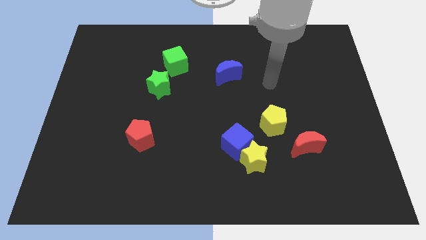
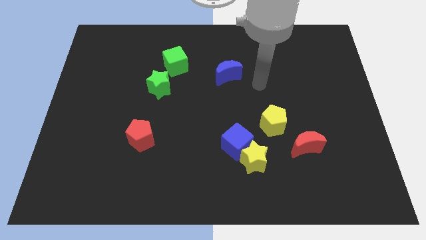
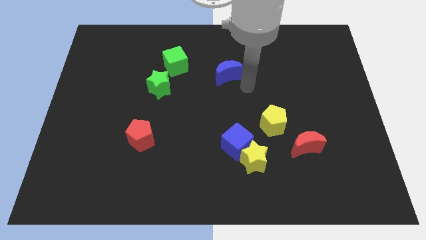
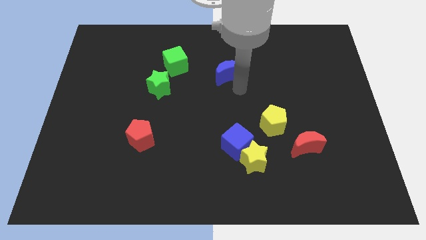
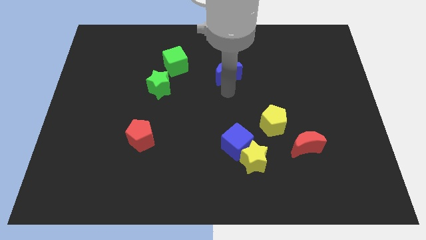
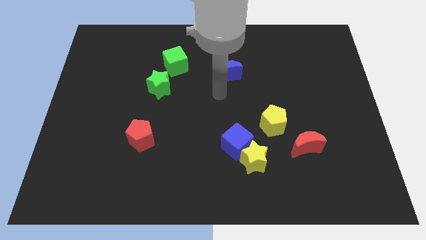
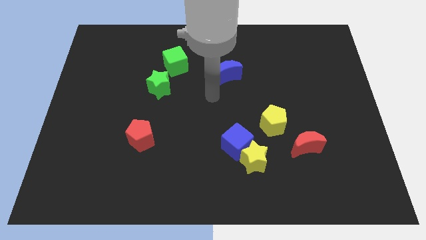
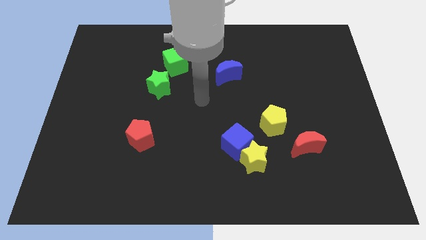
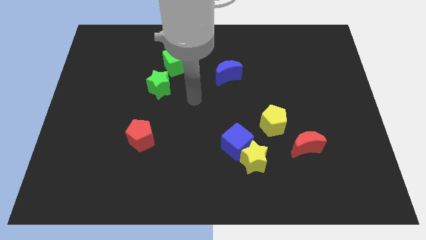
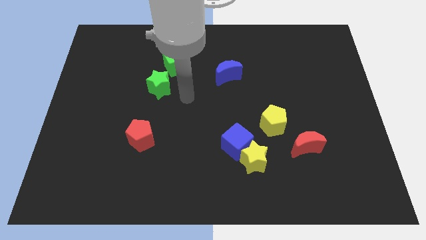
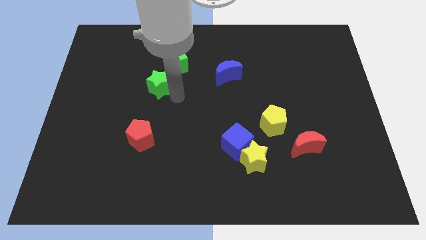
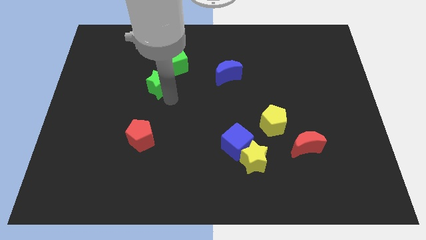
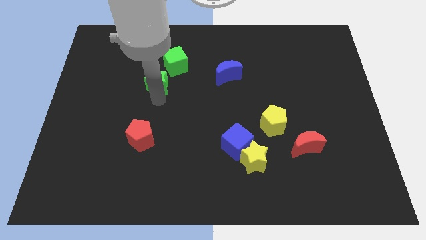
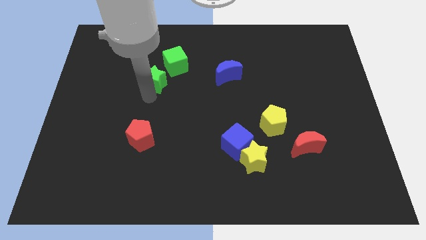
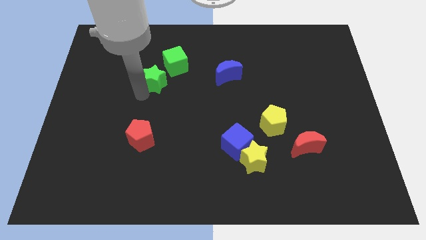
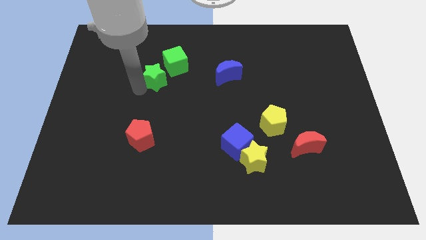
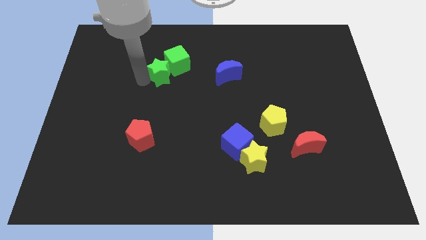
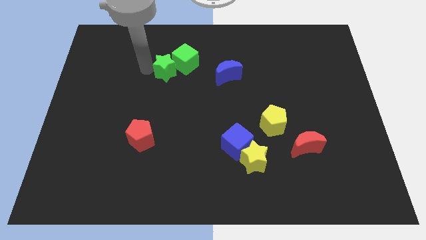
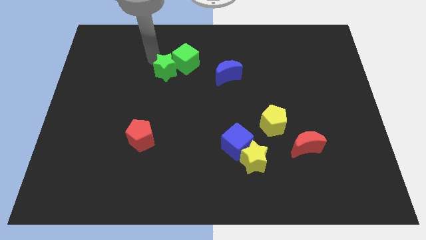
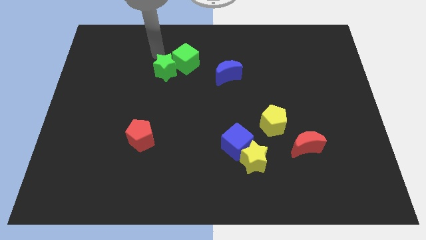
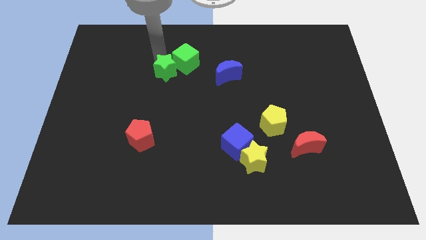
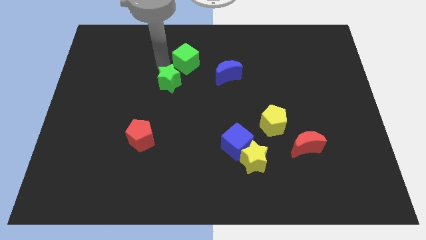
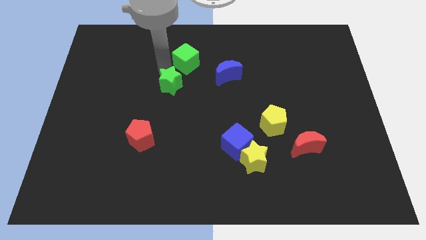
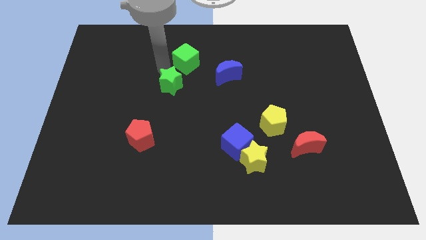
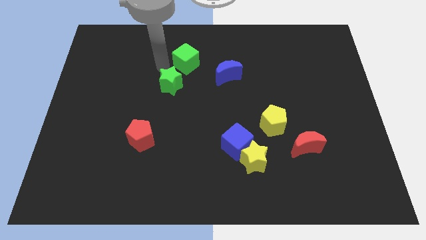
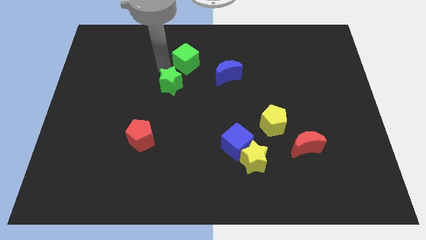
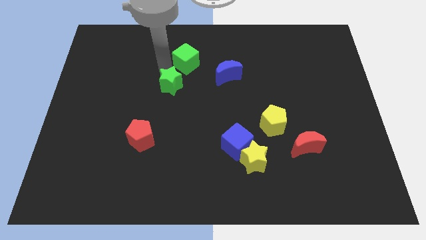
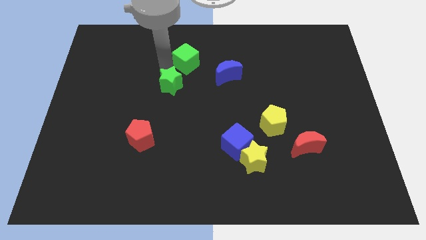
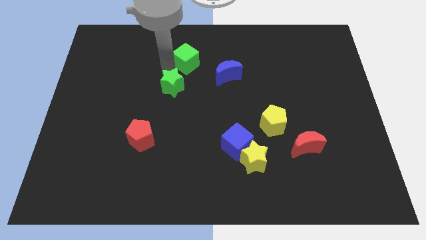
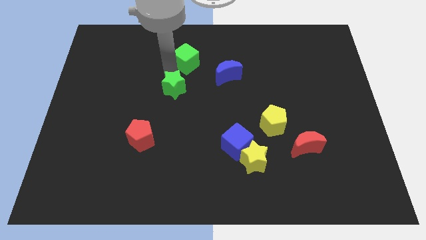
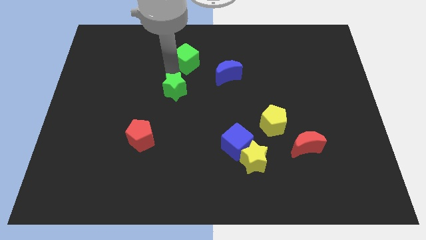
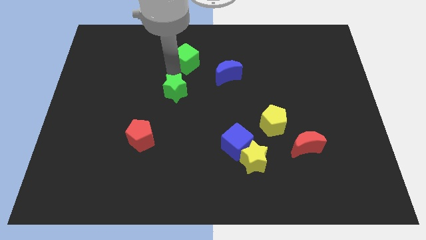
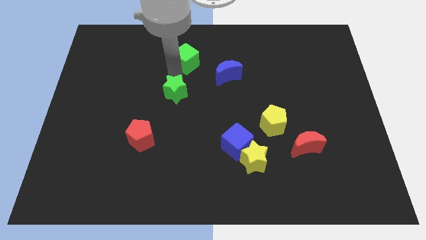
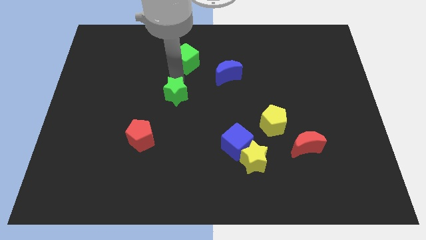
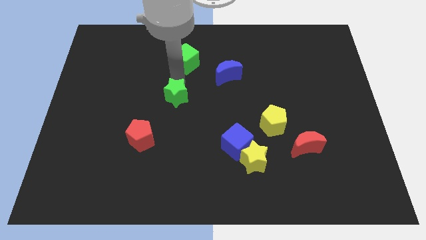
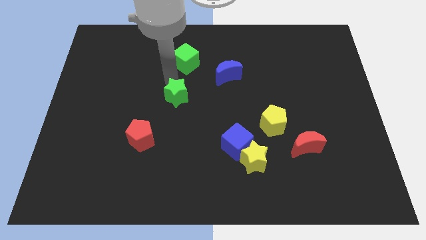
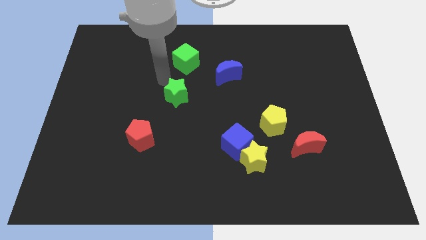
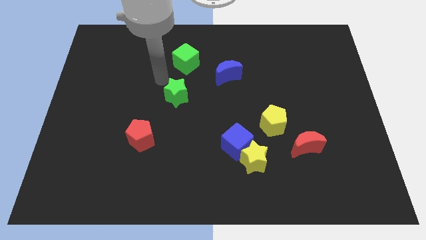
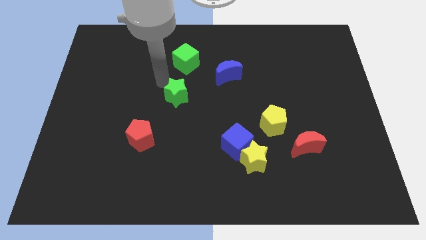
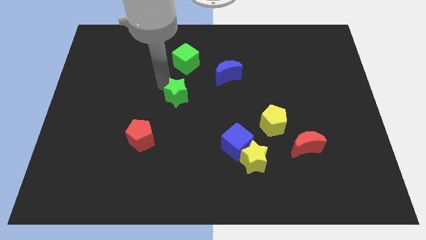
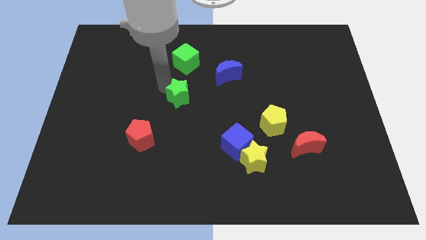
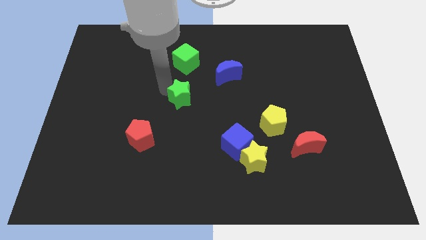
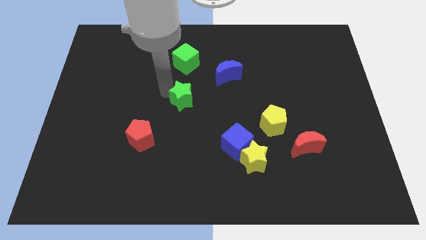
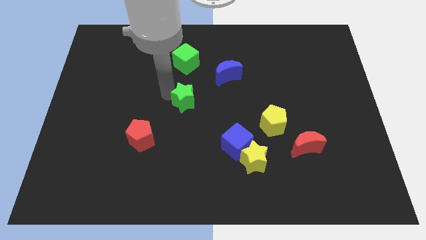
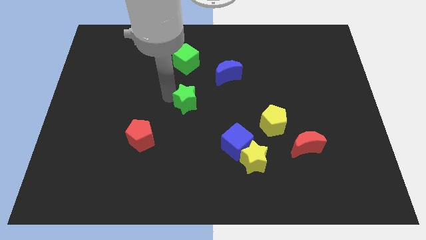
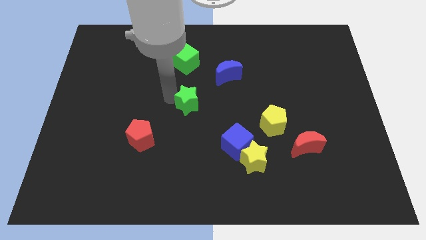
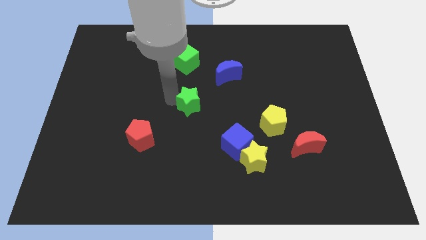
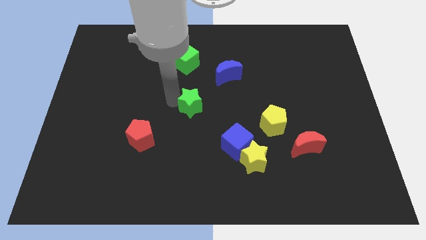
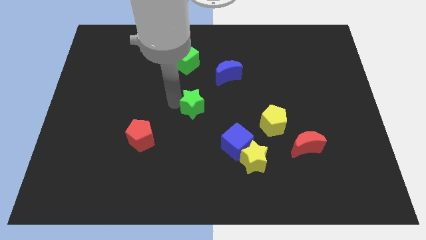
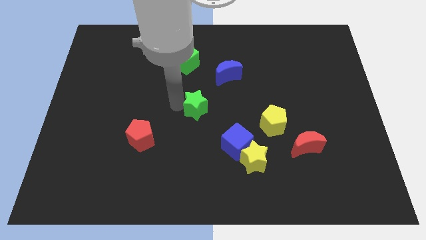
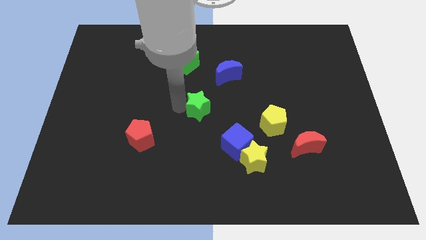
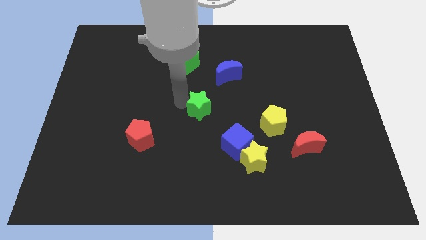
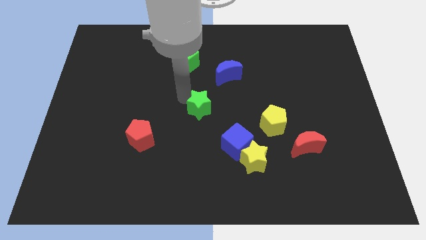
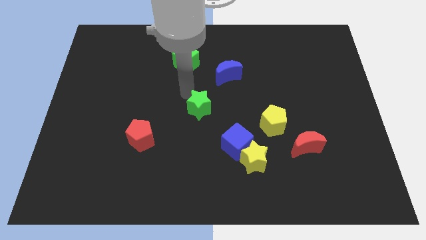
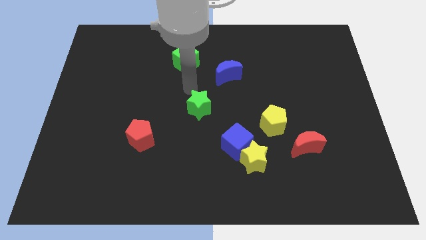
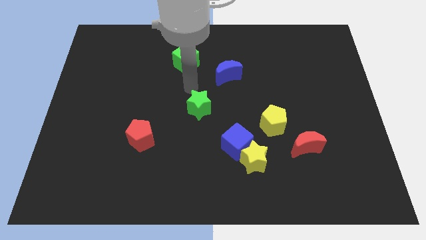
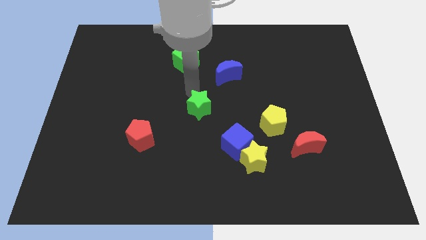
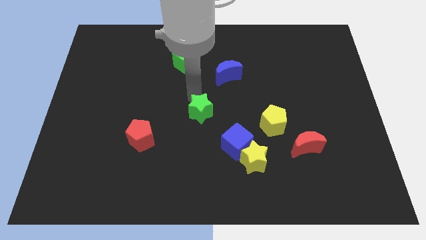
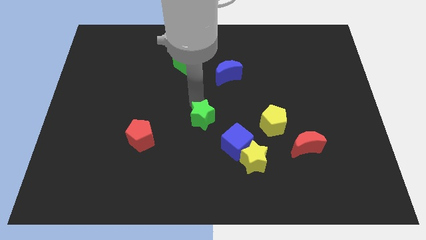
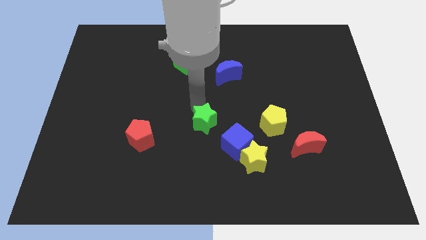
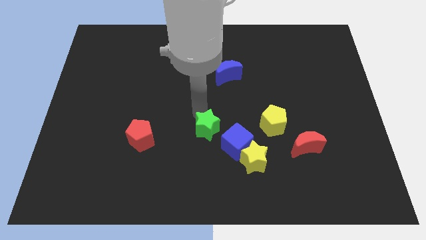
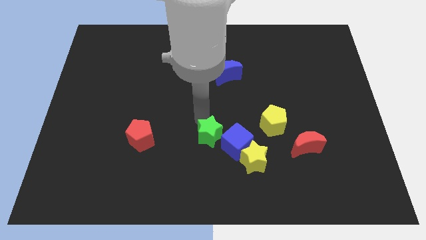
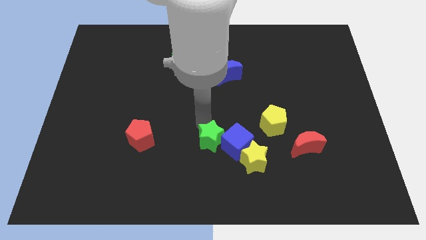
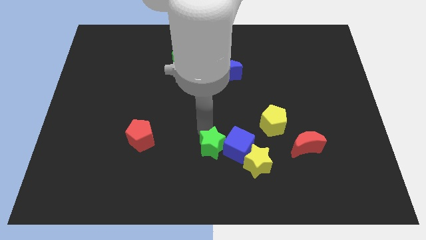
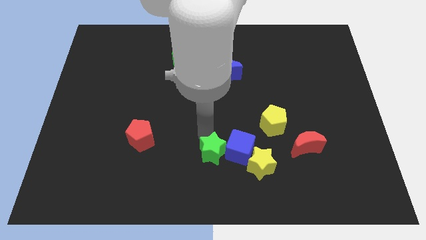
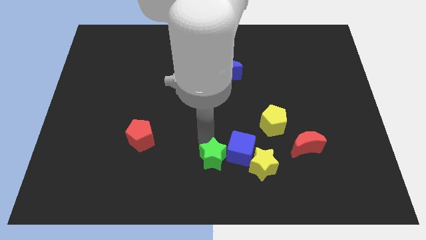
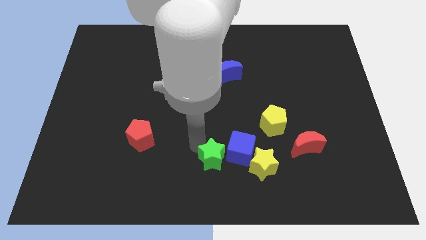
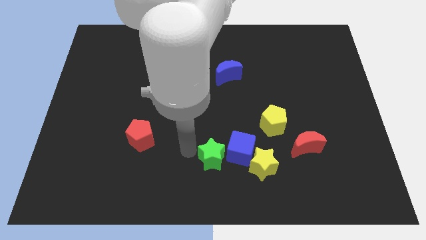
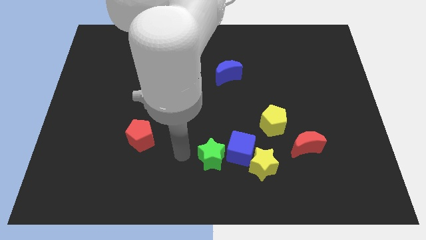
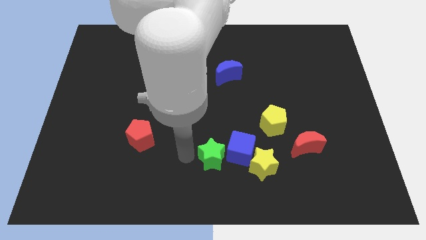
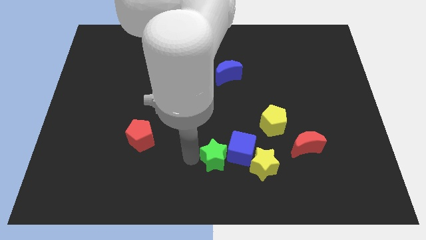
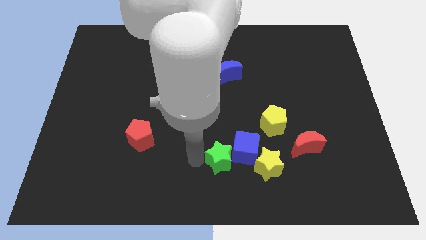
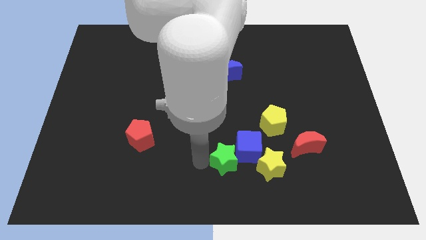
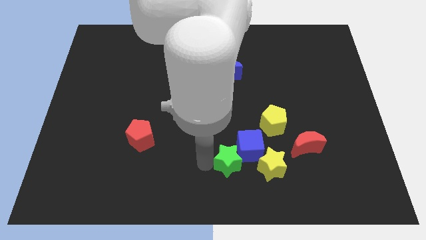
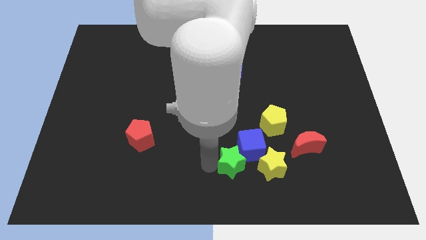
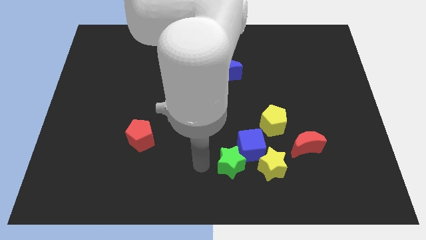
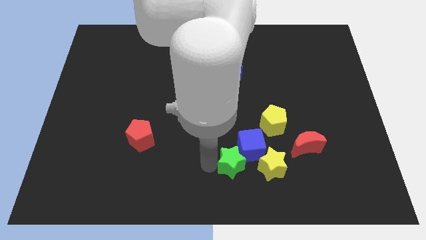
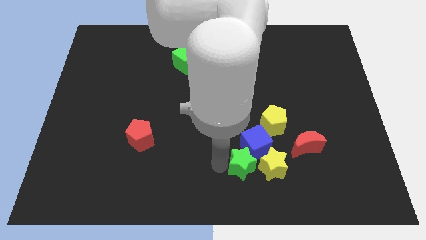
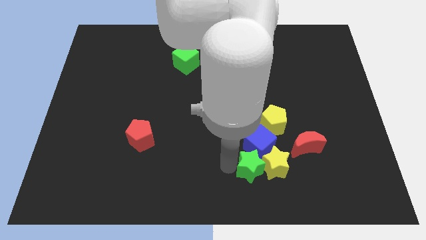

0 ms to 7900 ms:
move the green star close to the yellow star
